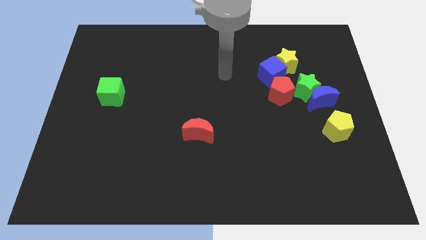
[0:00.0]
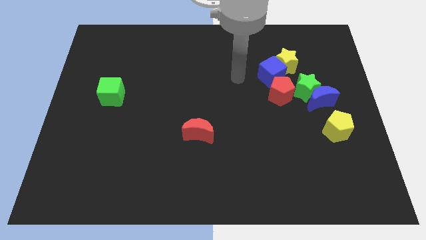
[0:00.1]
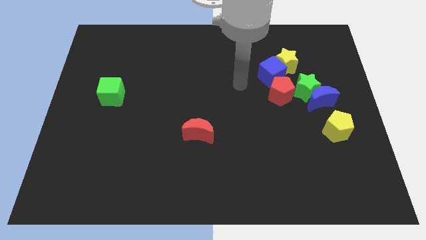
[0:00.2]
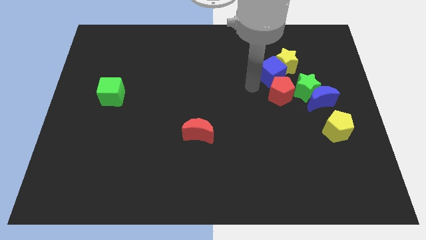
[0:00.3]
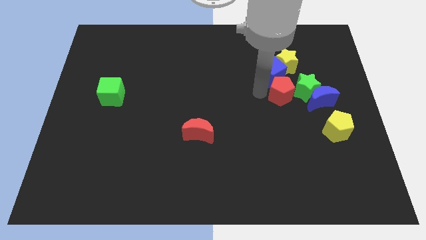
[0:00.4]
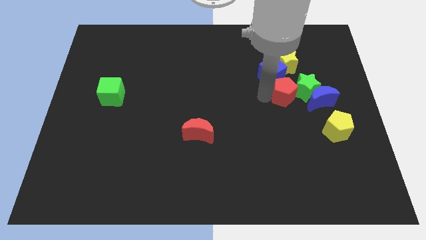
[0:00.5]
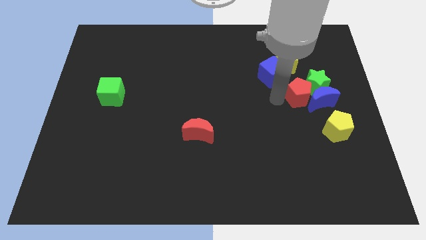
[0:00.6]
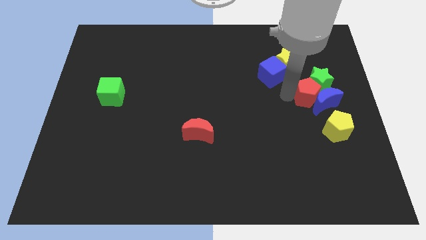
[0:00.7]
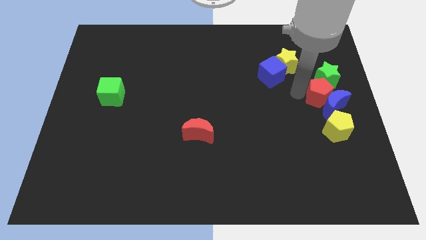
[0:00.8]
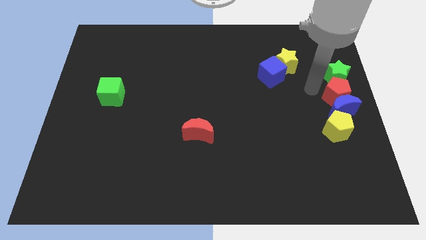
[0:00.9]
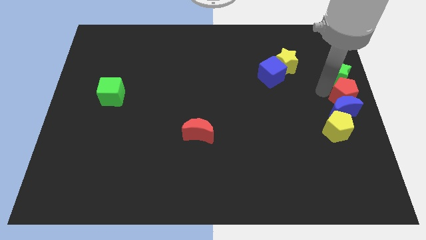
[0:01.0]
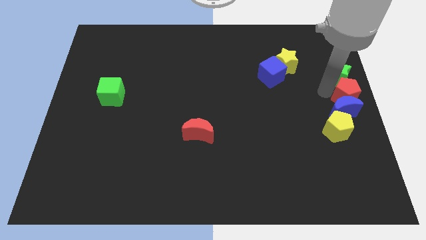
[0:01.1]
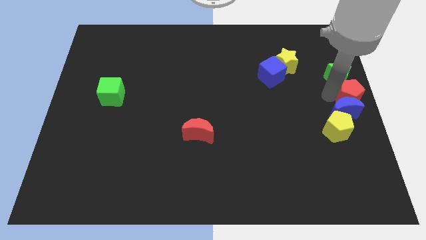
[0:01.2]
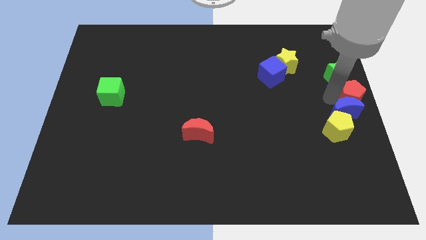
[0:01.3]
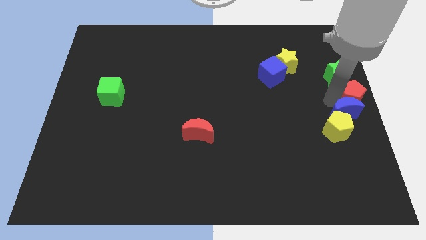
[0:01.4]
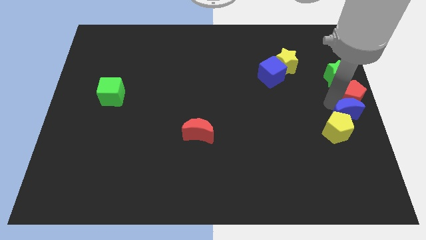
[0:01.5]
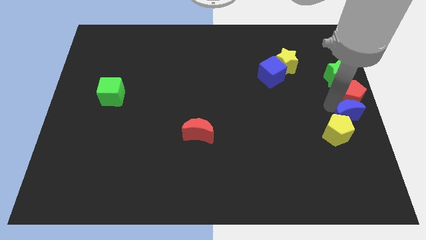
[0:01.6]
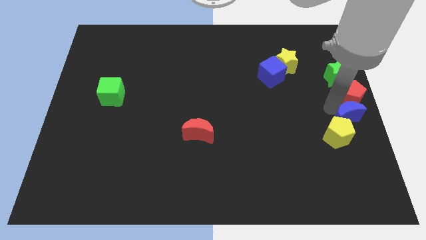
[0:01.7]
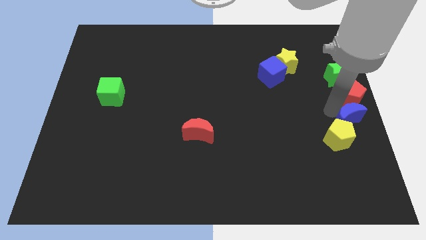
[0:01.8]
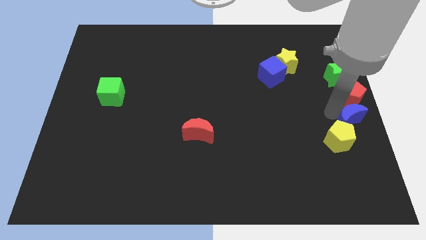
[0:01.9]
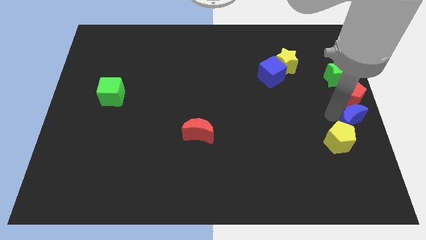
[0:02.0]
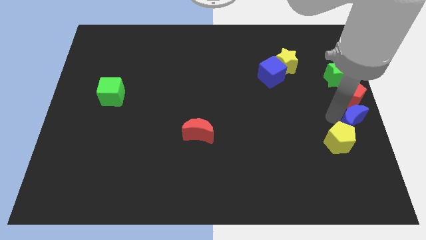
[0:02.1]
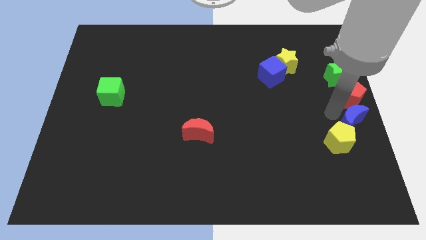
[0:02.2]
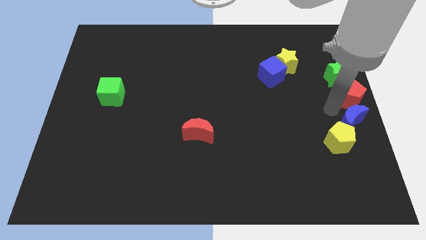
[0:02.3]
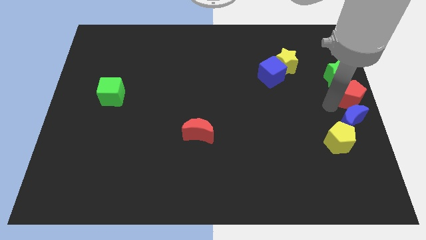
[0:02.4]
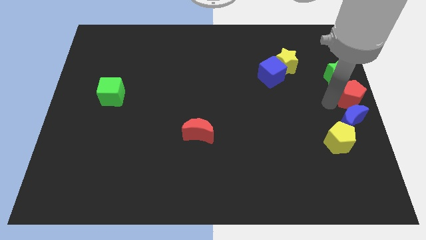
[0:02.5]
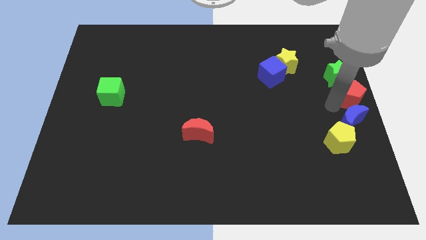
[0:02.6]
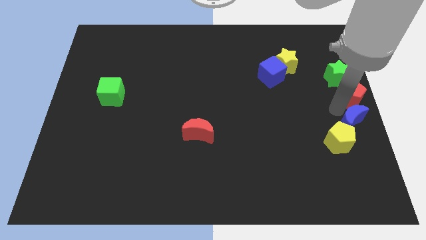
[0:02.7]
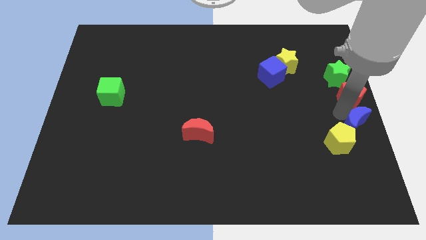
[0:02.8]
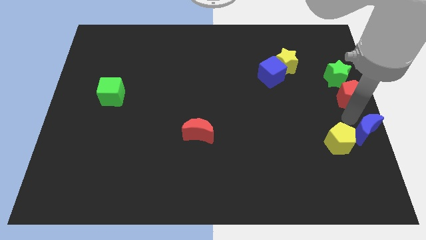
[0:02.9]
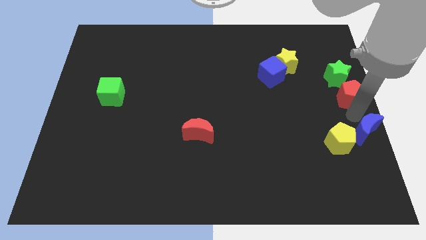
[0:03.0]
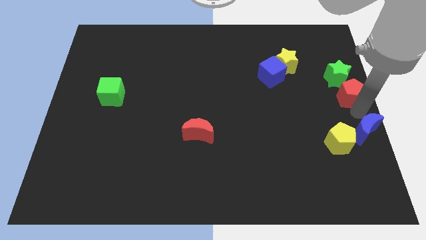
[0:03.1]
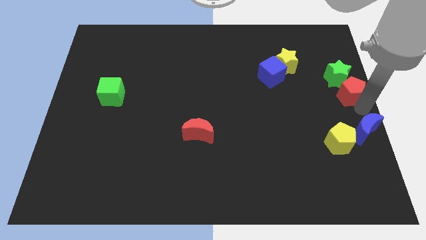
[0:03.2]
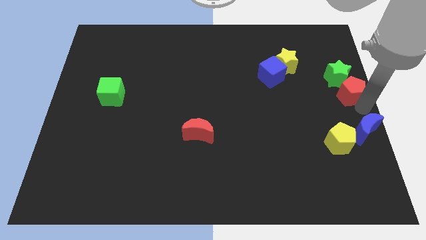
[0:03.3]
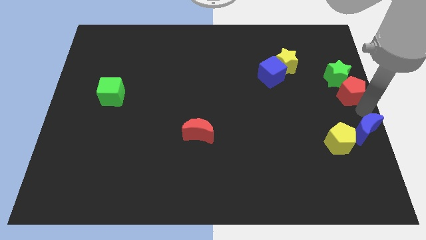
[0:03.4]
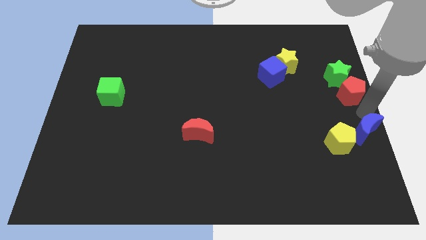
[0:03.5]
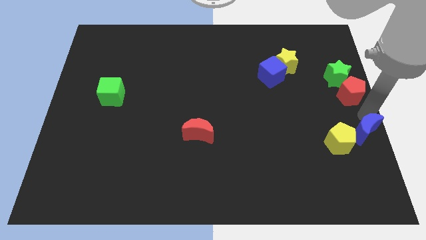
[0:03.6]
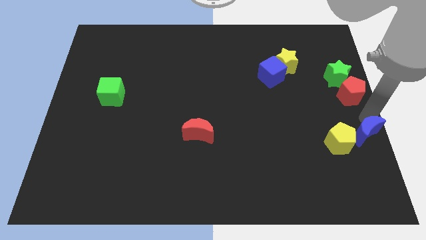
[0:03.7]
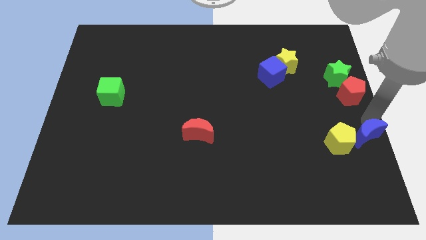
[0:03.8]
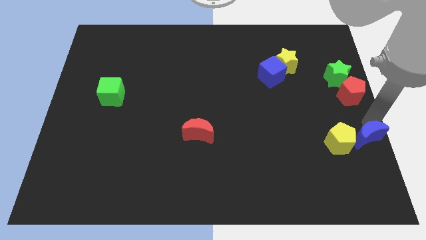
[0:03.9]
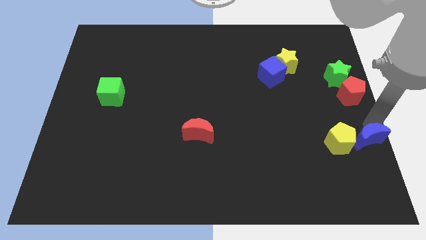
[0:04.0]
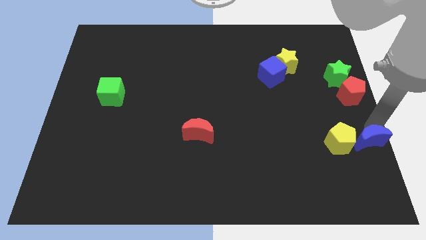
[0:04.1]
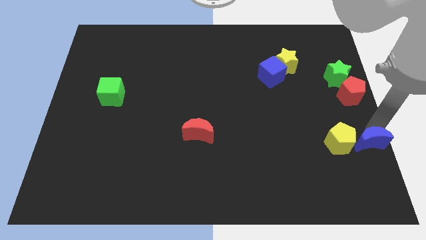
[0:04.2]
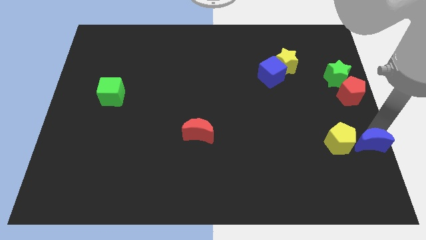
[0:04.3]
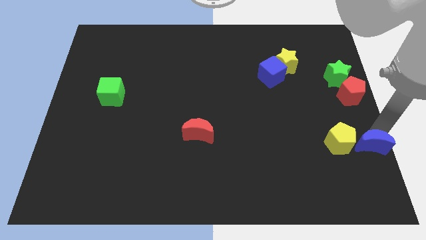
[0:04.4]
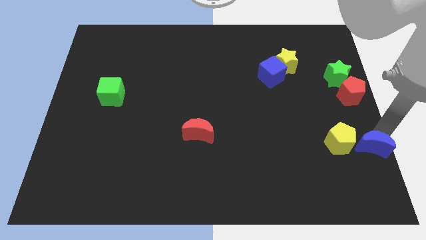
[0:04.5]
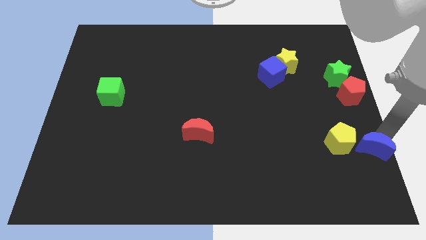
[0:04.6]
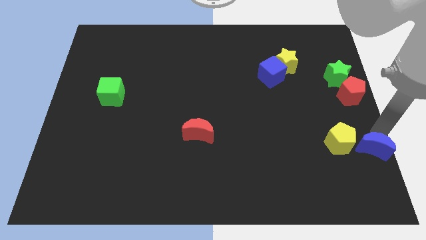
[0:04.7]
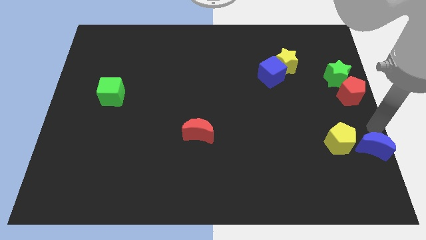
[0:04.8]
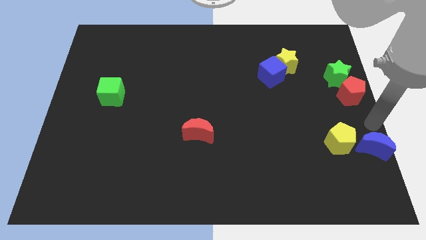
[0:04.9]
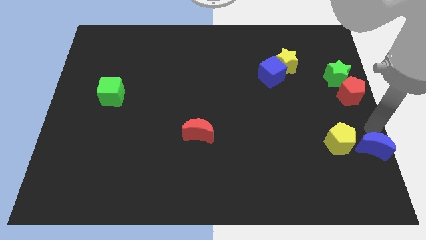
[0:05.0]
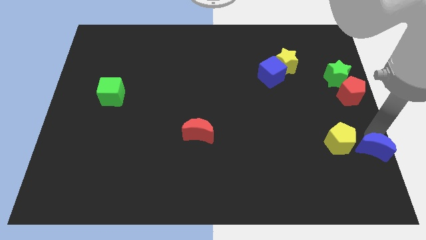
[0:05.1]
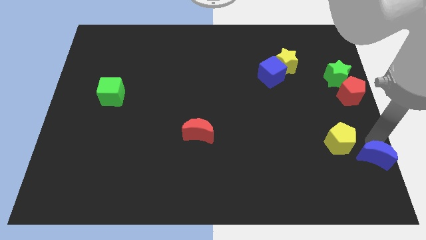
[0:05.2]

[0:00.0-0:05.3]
put the blue moon to the bottom right corner
